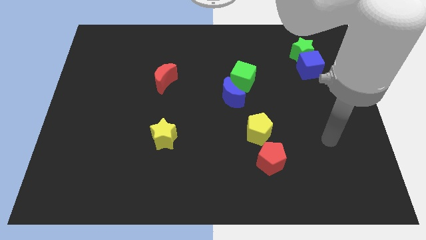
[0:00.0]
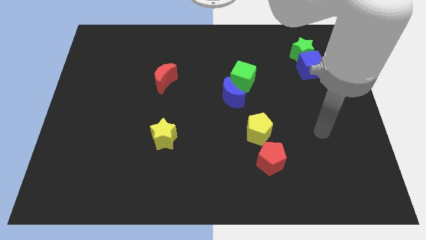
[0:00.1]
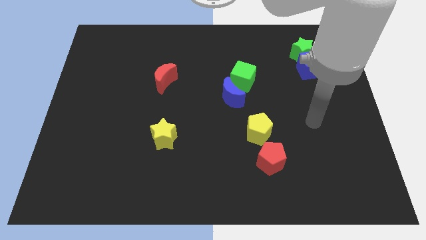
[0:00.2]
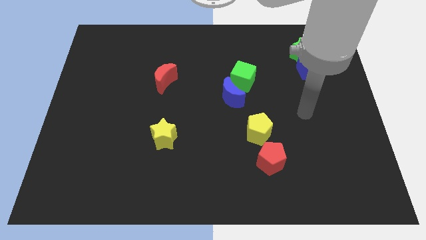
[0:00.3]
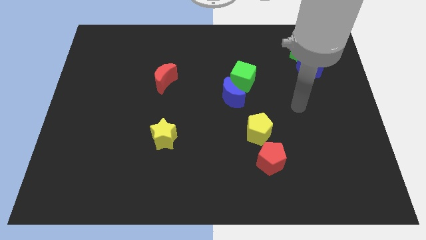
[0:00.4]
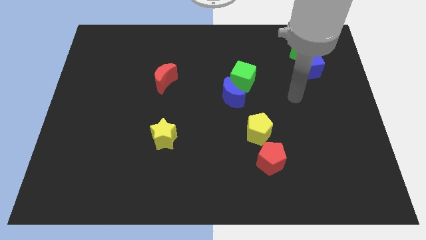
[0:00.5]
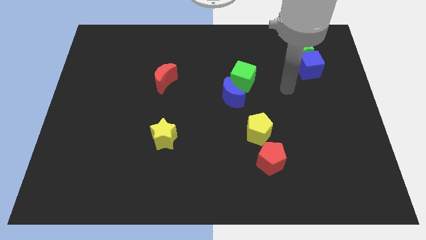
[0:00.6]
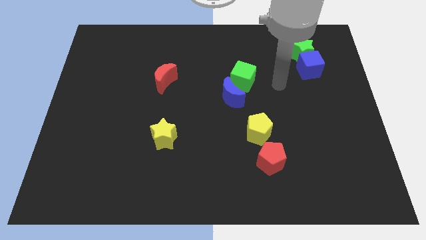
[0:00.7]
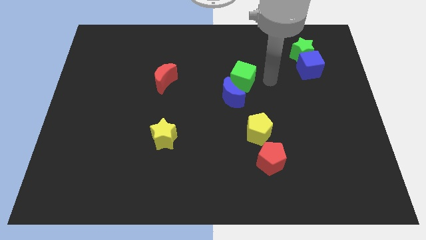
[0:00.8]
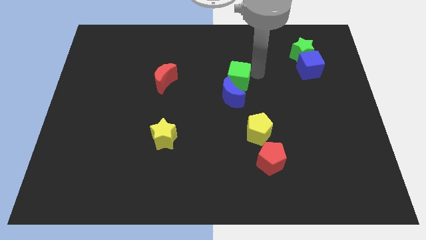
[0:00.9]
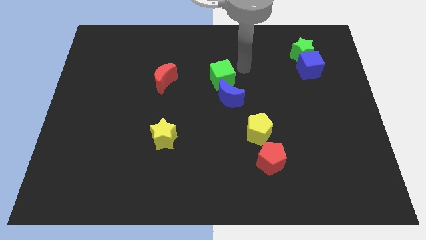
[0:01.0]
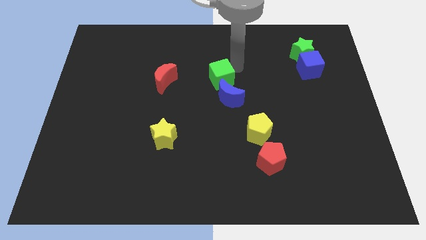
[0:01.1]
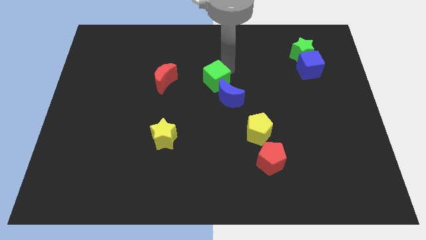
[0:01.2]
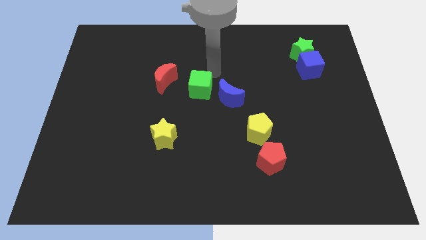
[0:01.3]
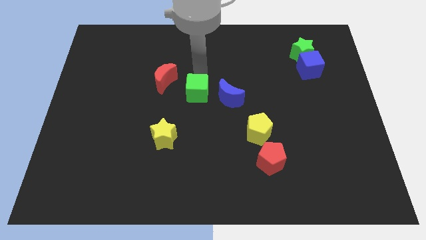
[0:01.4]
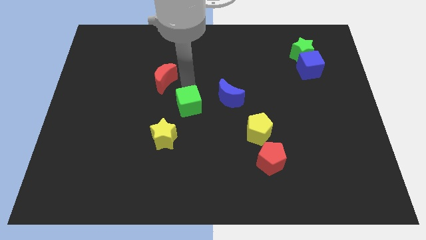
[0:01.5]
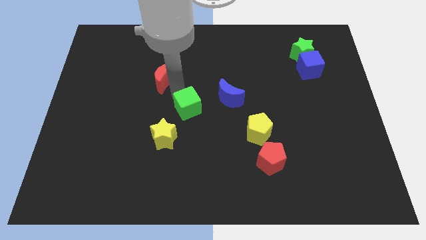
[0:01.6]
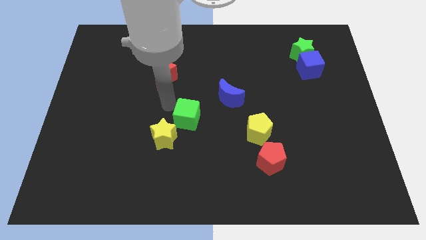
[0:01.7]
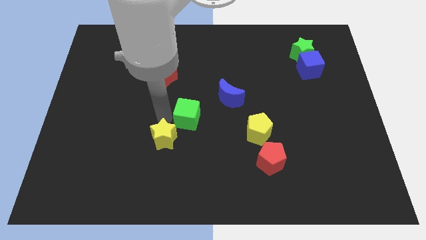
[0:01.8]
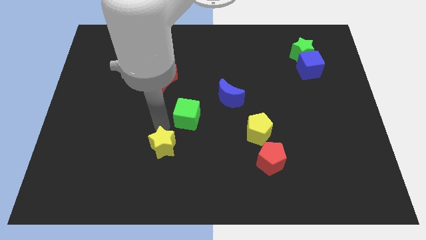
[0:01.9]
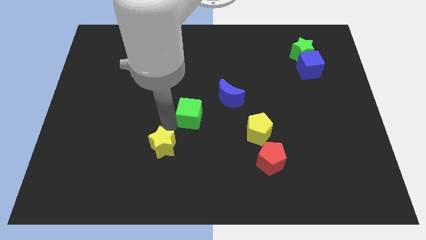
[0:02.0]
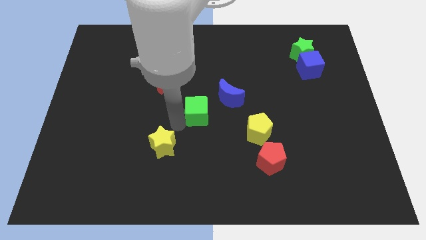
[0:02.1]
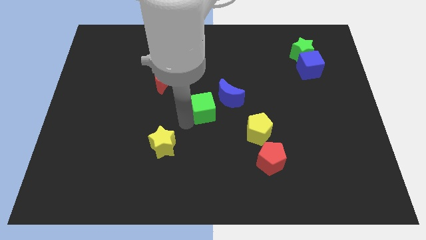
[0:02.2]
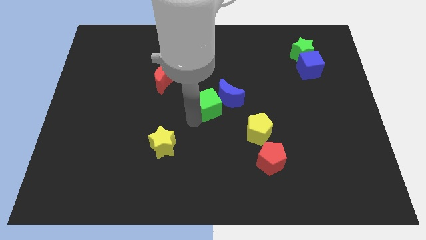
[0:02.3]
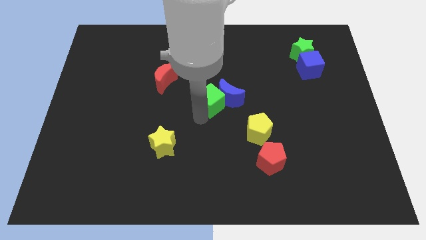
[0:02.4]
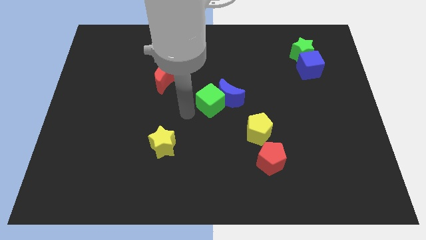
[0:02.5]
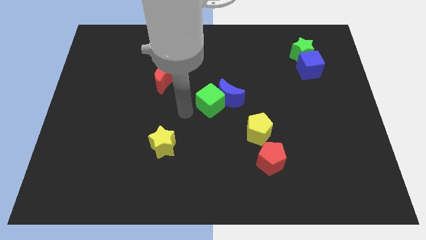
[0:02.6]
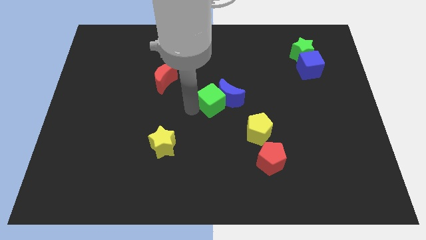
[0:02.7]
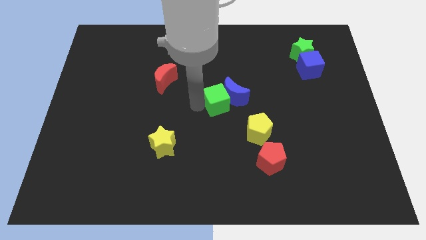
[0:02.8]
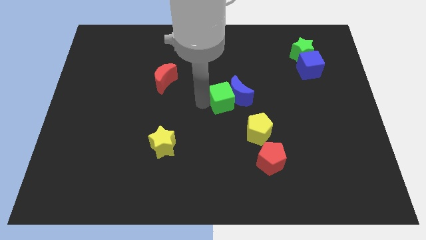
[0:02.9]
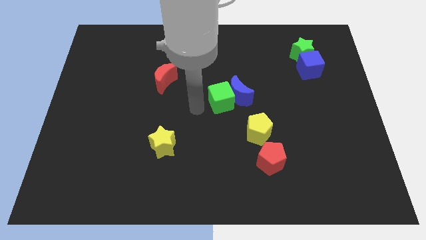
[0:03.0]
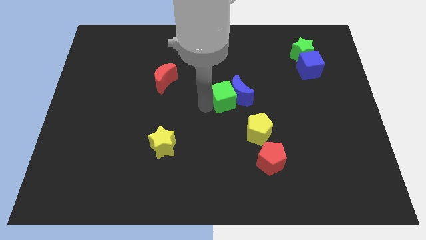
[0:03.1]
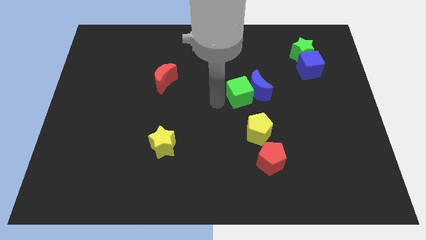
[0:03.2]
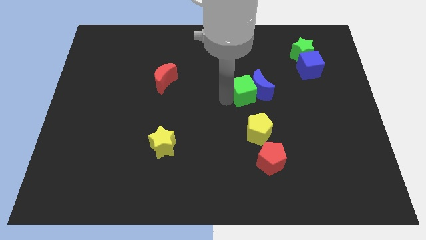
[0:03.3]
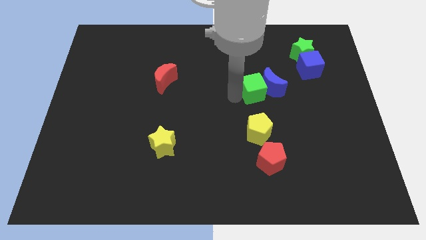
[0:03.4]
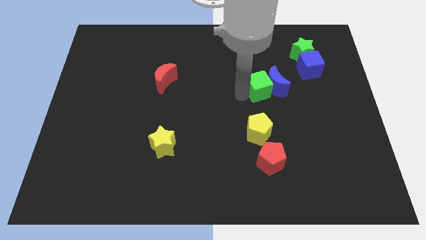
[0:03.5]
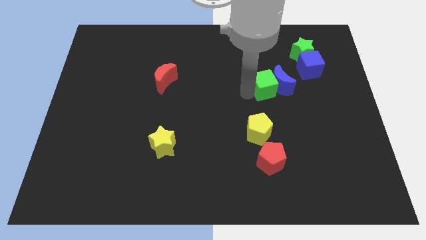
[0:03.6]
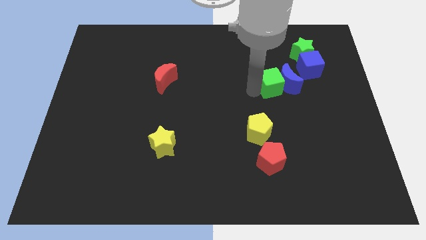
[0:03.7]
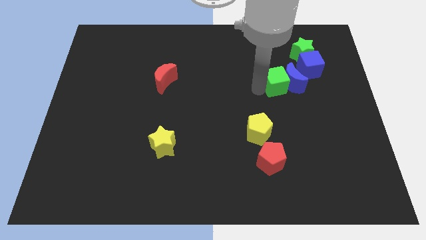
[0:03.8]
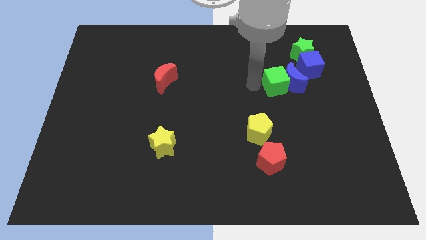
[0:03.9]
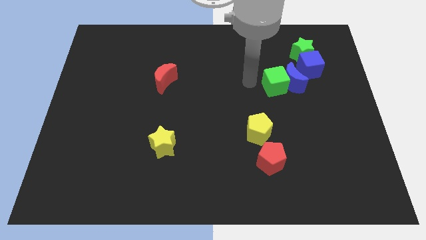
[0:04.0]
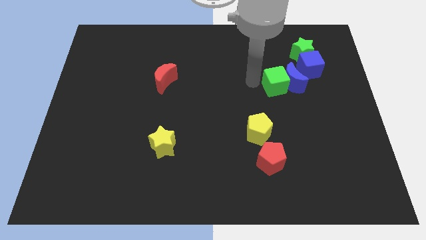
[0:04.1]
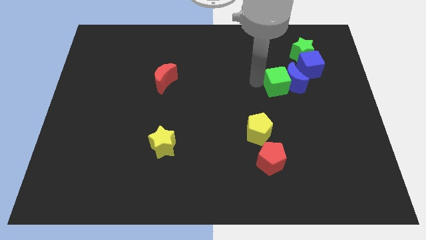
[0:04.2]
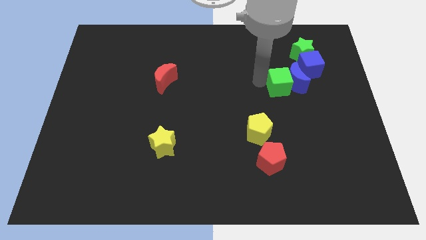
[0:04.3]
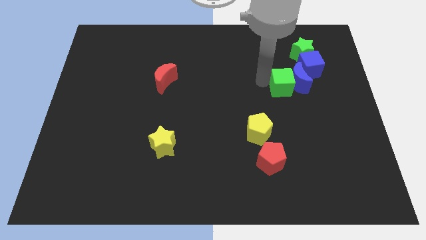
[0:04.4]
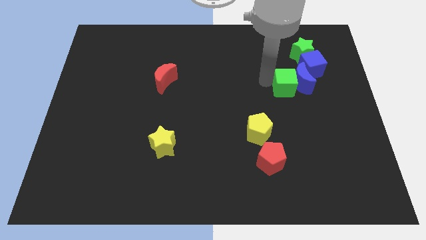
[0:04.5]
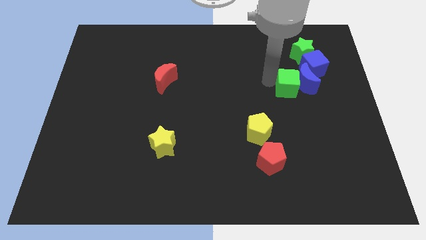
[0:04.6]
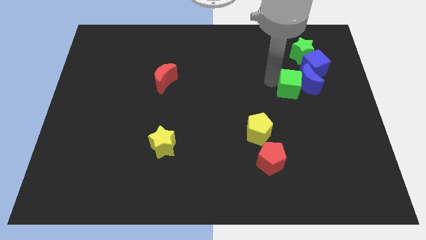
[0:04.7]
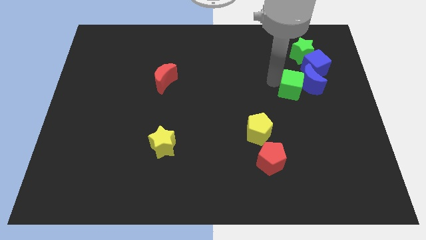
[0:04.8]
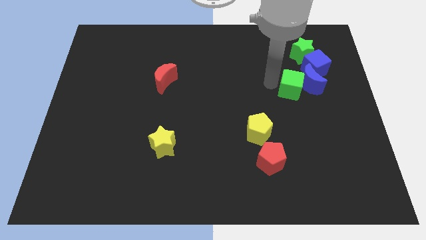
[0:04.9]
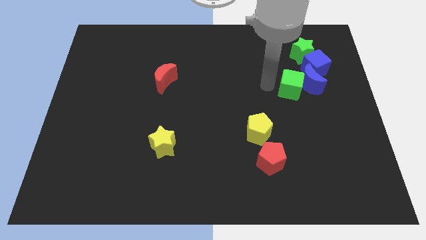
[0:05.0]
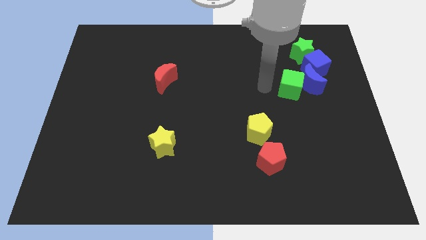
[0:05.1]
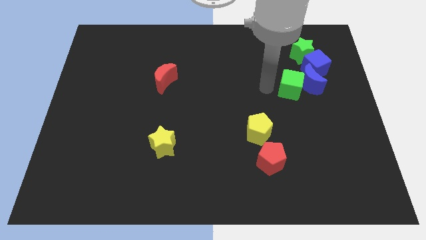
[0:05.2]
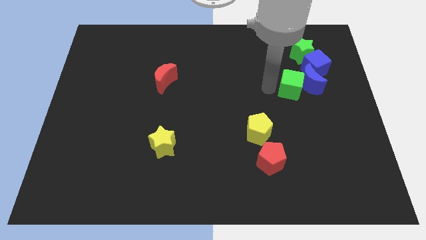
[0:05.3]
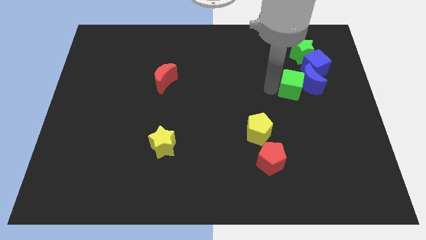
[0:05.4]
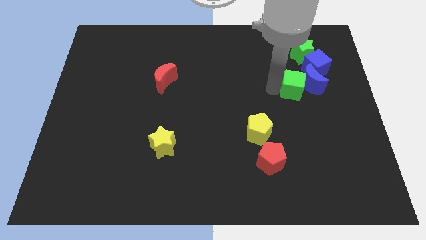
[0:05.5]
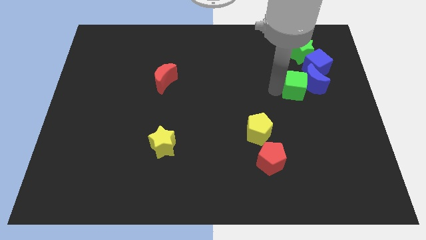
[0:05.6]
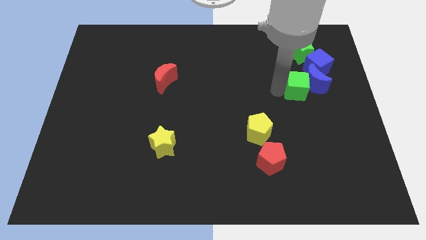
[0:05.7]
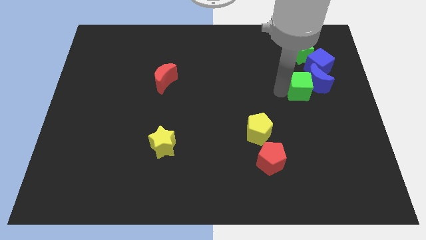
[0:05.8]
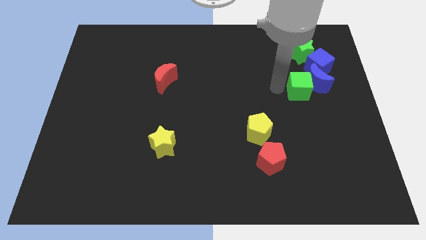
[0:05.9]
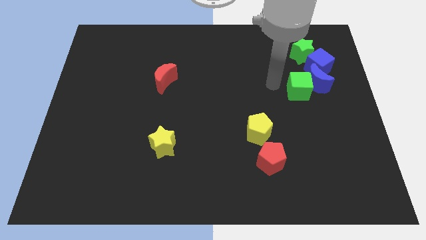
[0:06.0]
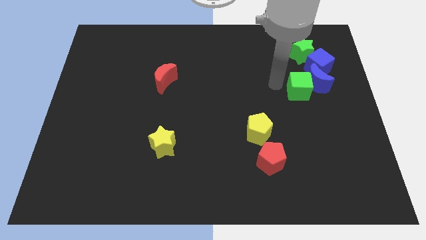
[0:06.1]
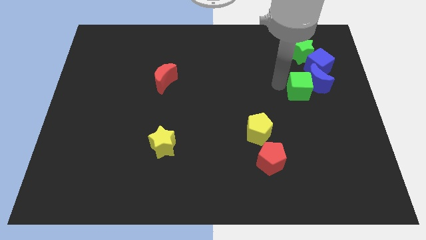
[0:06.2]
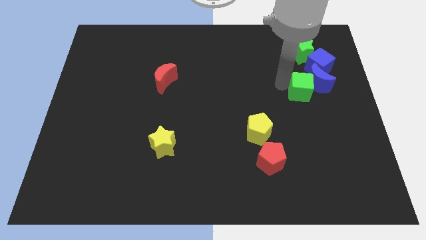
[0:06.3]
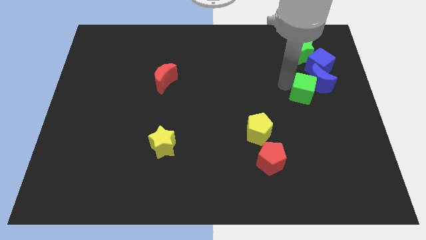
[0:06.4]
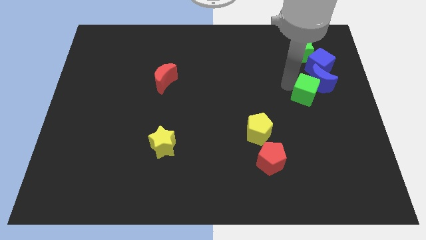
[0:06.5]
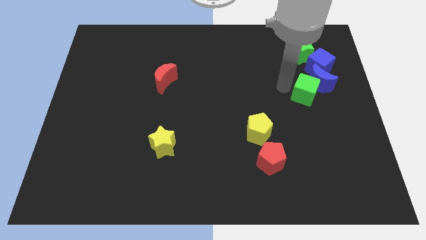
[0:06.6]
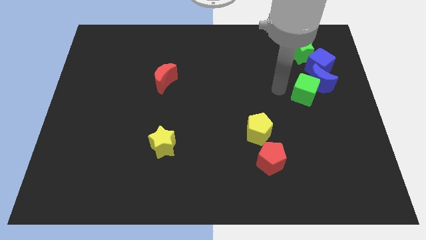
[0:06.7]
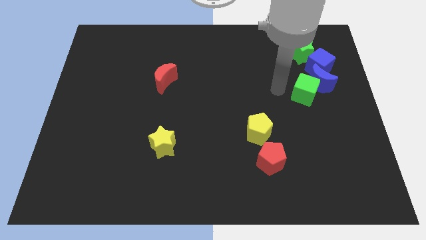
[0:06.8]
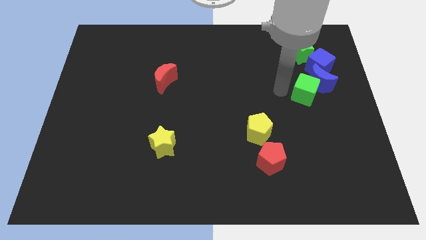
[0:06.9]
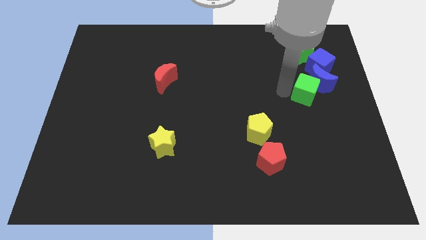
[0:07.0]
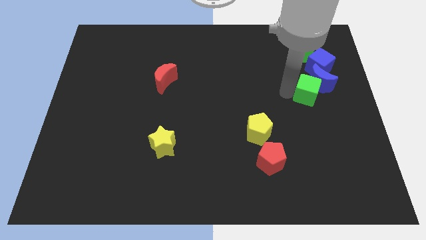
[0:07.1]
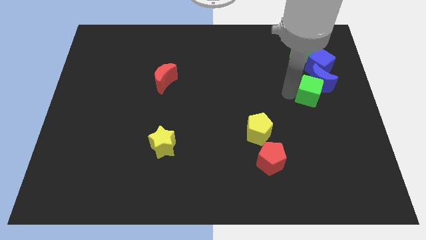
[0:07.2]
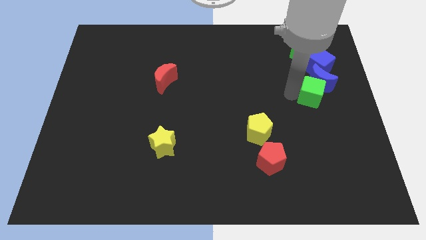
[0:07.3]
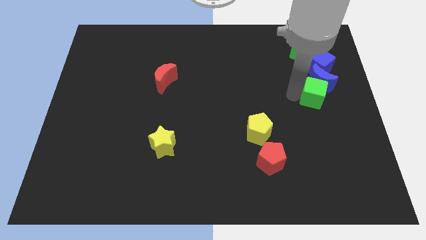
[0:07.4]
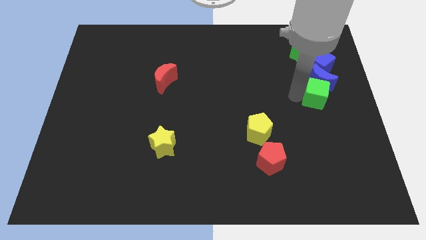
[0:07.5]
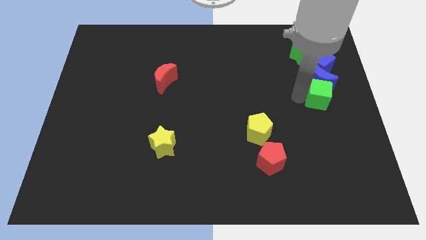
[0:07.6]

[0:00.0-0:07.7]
push the green cube to the right side of the board

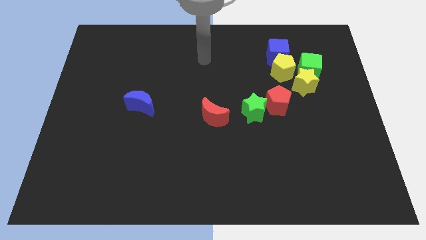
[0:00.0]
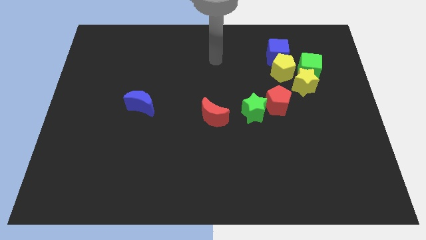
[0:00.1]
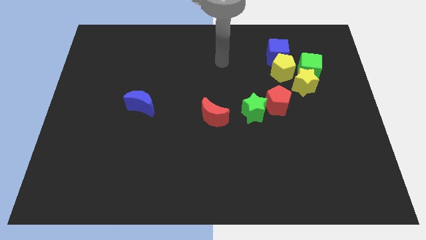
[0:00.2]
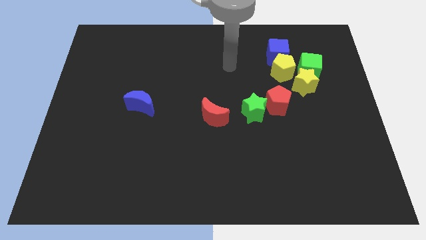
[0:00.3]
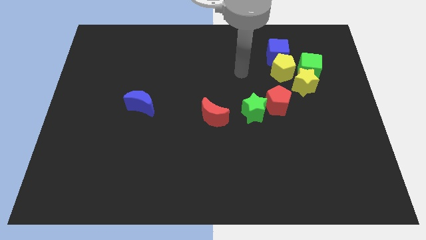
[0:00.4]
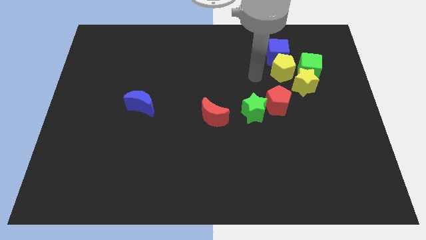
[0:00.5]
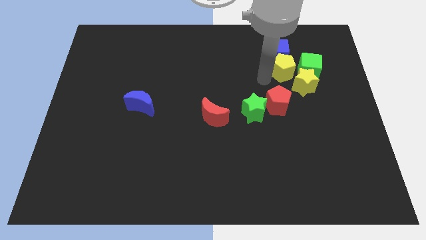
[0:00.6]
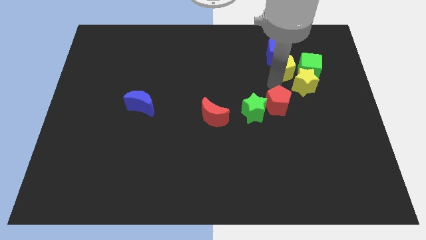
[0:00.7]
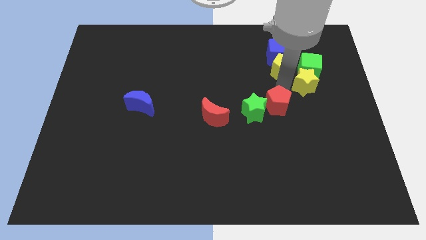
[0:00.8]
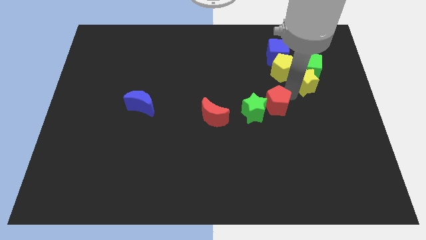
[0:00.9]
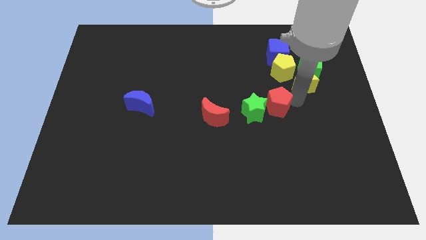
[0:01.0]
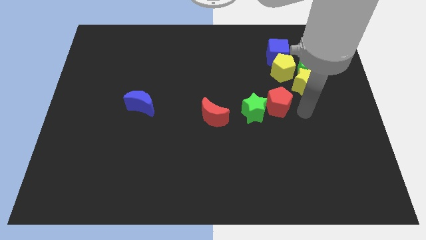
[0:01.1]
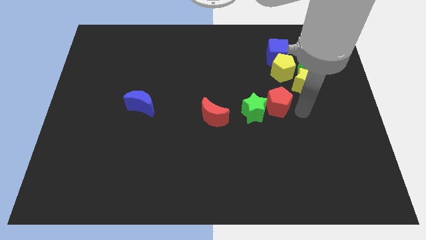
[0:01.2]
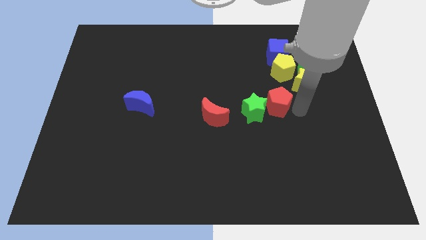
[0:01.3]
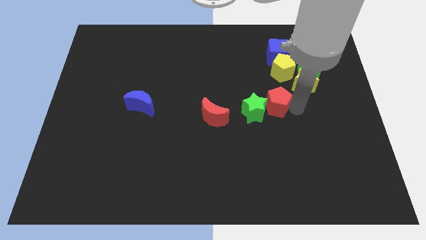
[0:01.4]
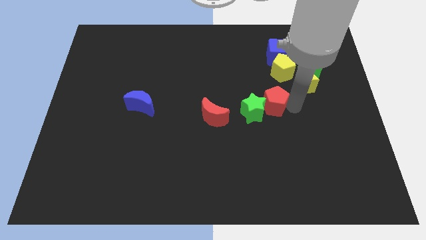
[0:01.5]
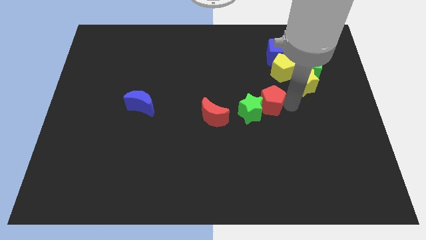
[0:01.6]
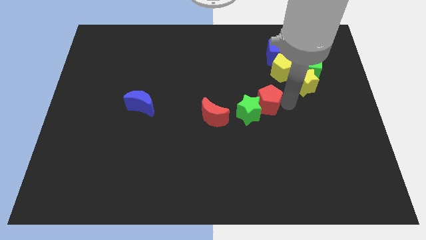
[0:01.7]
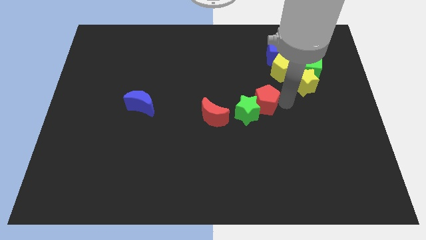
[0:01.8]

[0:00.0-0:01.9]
put the red pentagon to the middle
